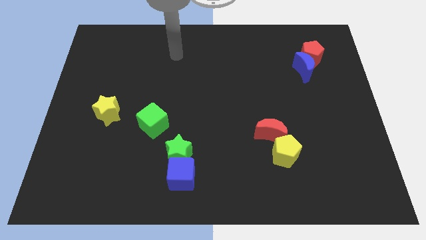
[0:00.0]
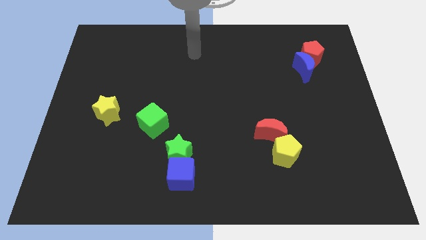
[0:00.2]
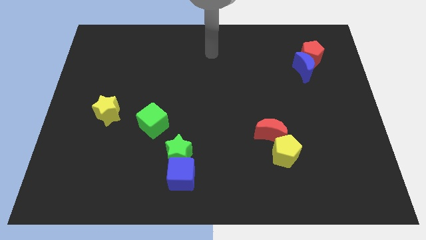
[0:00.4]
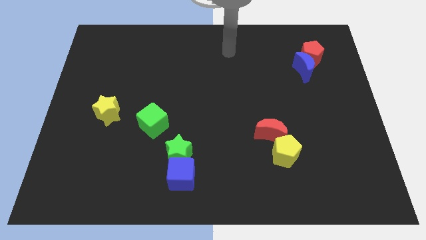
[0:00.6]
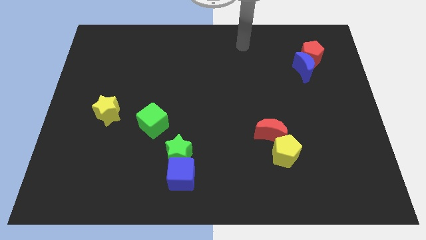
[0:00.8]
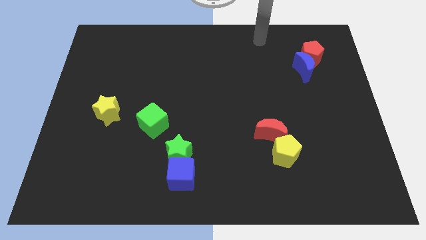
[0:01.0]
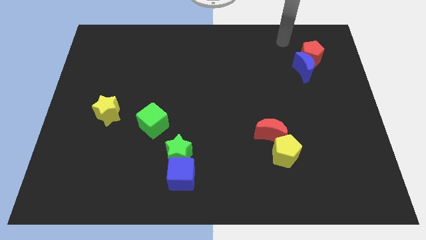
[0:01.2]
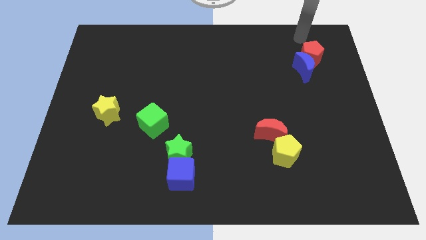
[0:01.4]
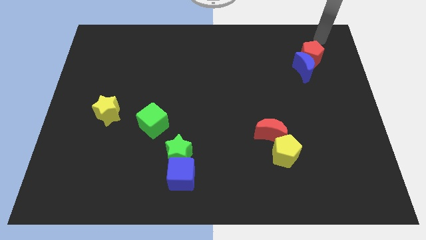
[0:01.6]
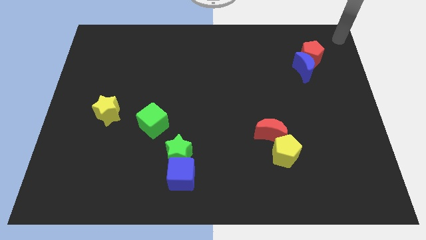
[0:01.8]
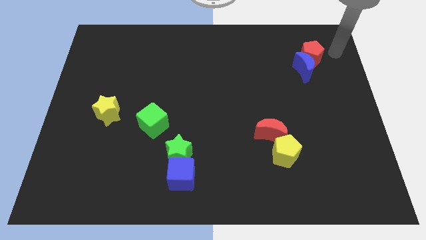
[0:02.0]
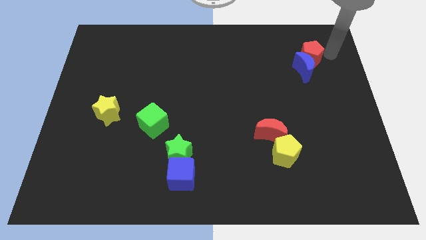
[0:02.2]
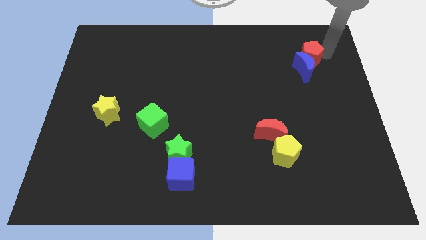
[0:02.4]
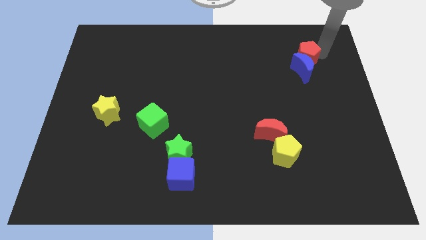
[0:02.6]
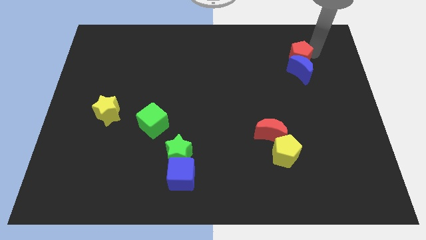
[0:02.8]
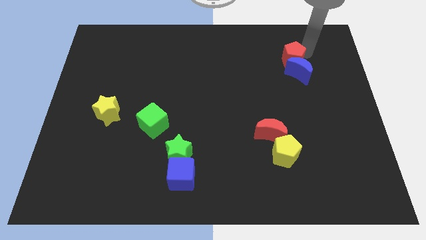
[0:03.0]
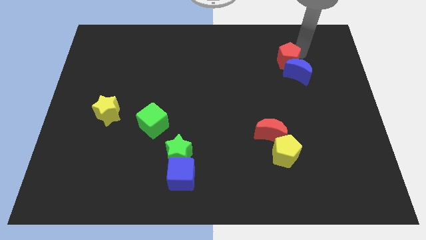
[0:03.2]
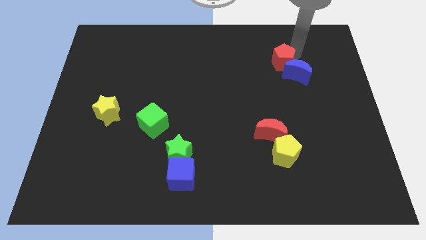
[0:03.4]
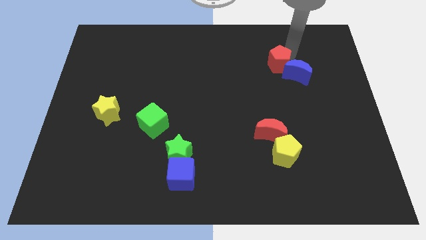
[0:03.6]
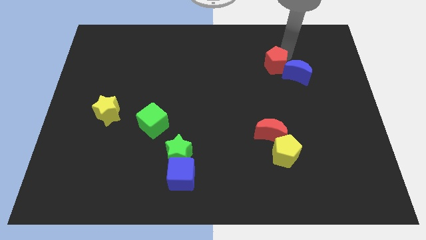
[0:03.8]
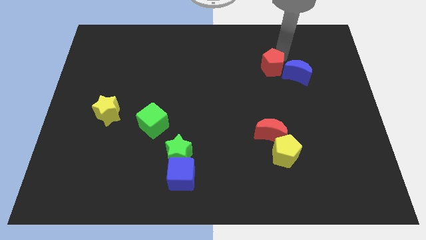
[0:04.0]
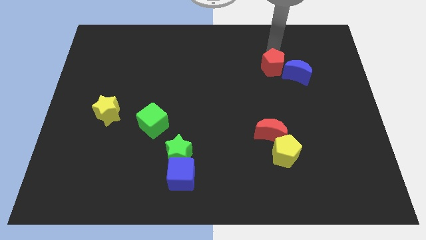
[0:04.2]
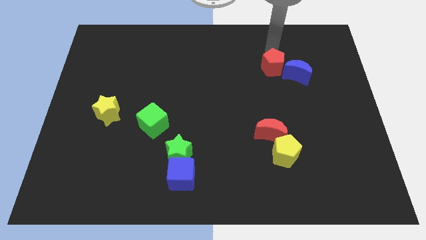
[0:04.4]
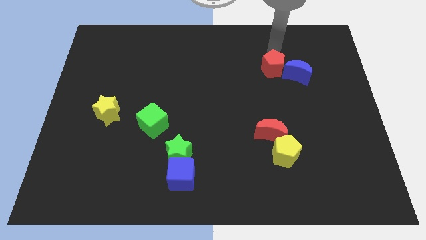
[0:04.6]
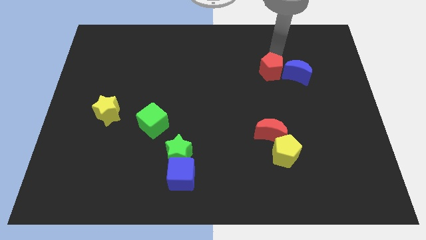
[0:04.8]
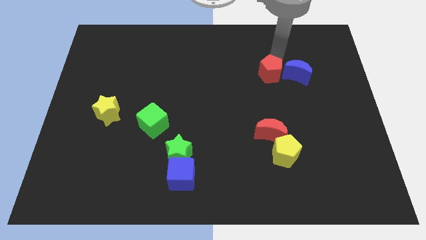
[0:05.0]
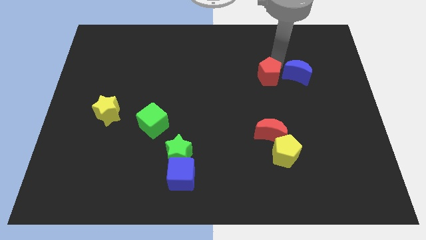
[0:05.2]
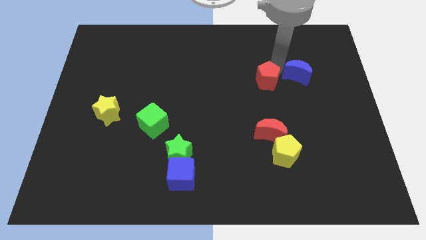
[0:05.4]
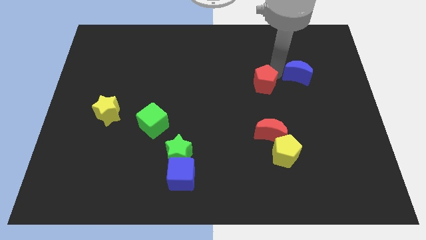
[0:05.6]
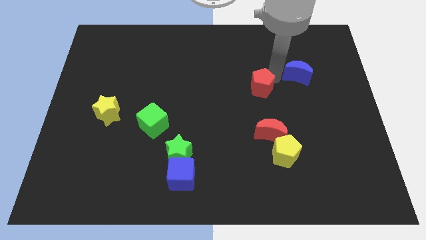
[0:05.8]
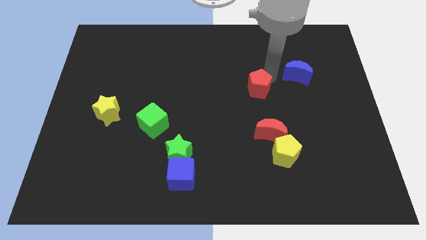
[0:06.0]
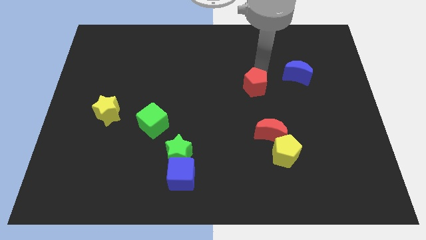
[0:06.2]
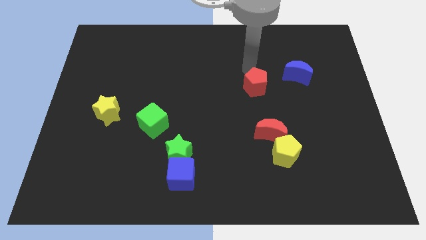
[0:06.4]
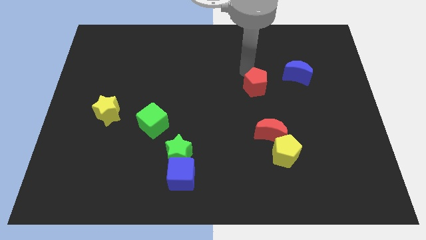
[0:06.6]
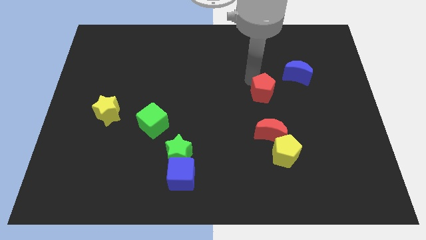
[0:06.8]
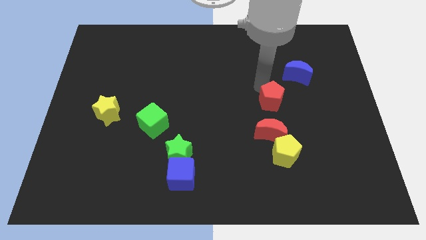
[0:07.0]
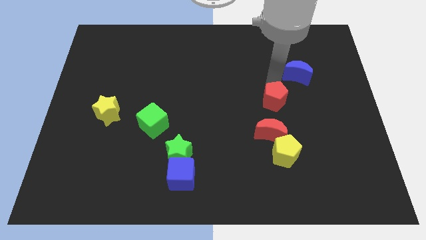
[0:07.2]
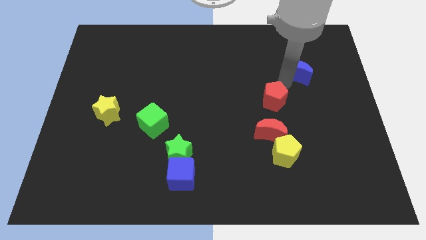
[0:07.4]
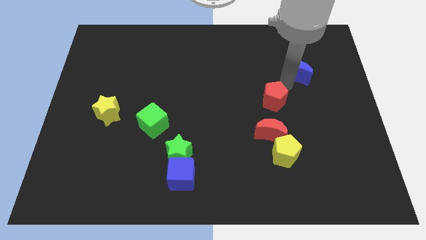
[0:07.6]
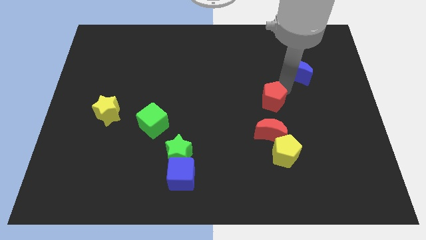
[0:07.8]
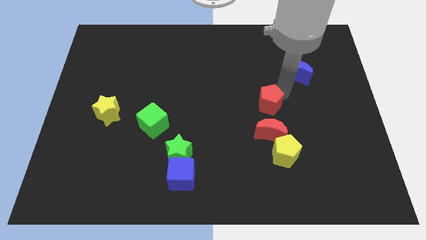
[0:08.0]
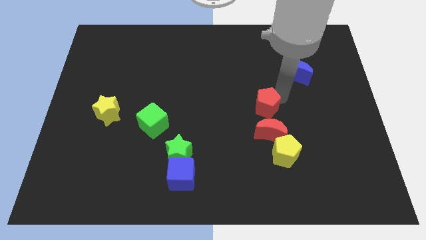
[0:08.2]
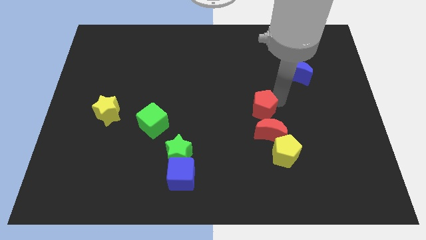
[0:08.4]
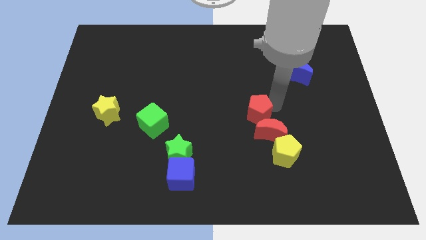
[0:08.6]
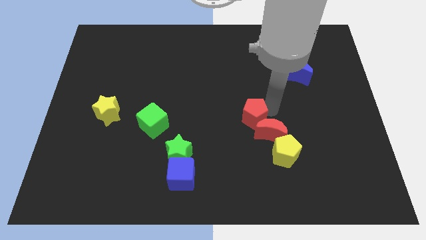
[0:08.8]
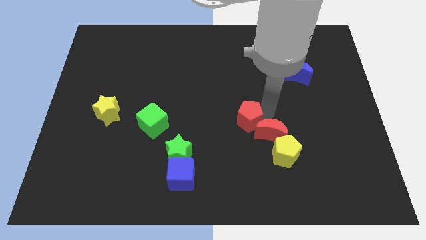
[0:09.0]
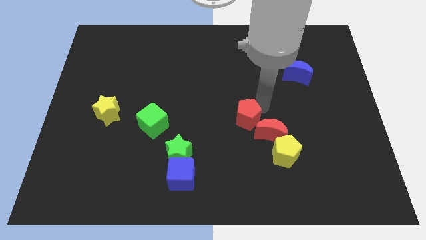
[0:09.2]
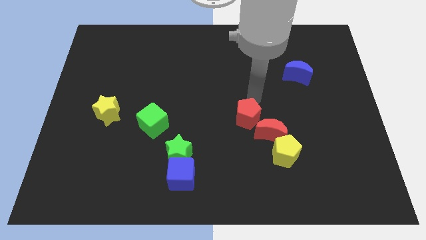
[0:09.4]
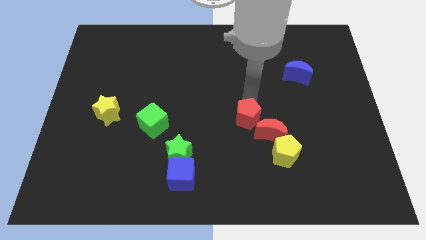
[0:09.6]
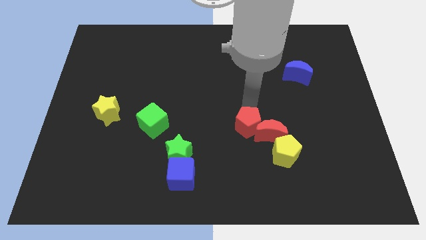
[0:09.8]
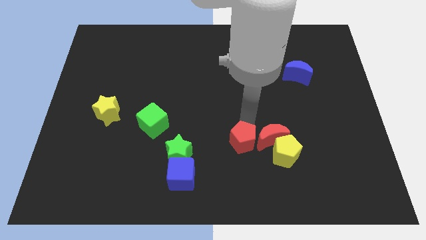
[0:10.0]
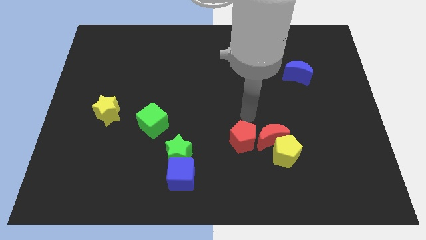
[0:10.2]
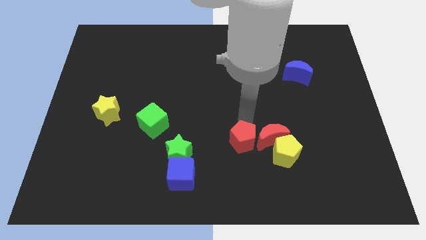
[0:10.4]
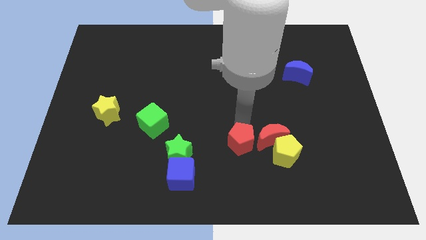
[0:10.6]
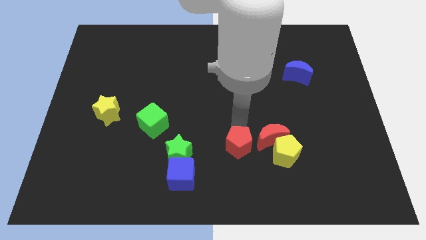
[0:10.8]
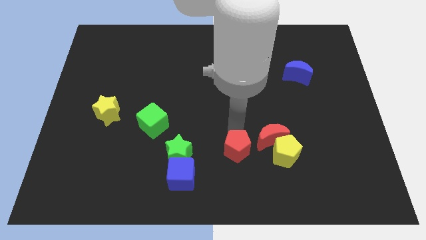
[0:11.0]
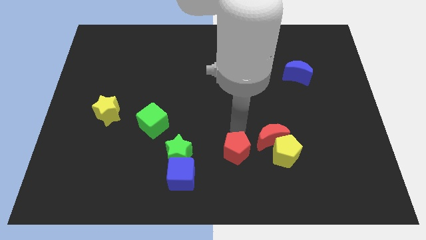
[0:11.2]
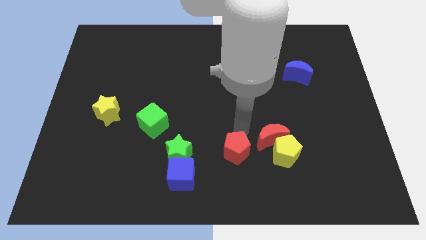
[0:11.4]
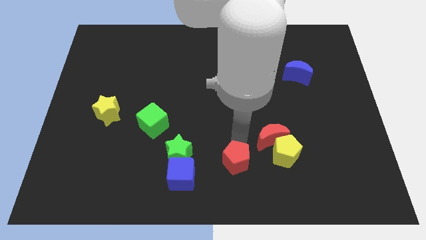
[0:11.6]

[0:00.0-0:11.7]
push the red pentagon to the bottom side

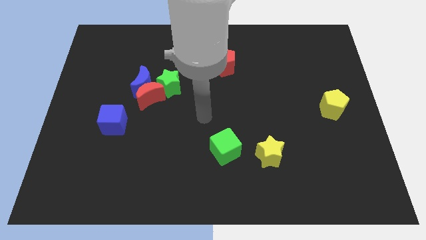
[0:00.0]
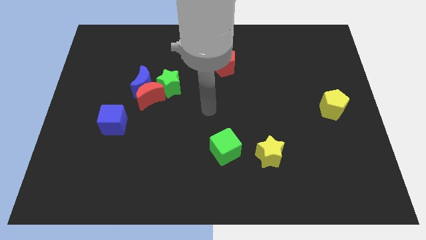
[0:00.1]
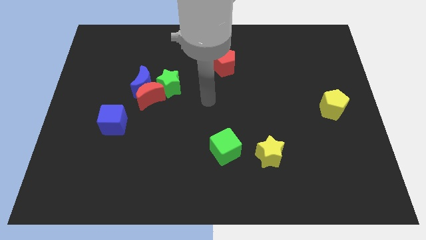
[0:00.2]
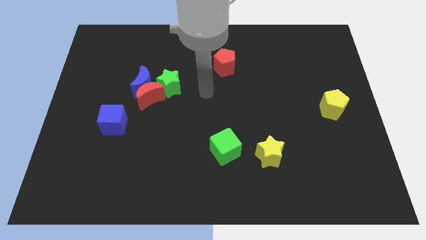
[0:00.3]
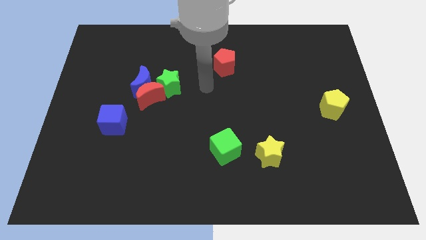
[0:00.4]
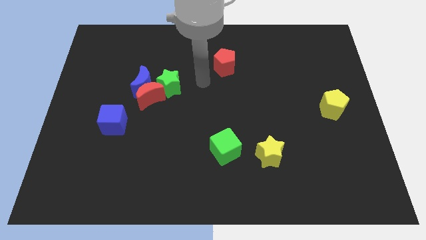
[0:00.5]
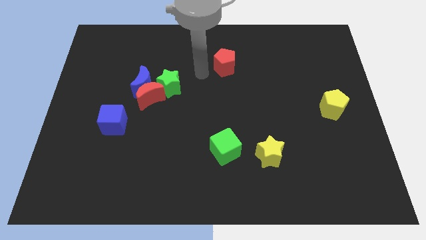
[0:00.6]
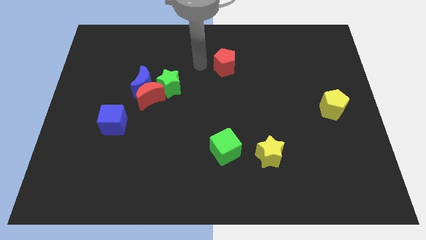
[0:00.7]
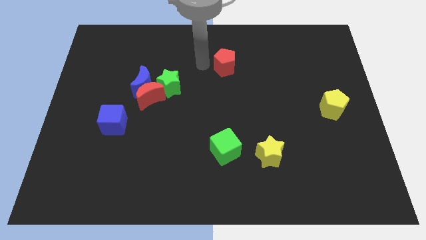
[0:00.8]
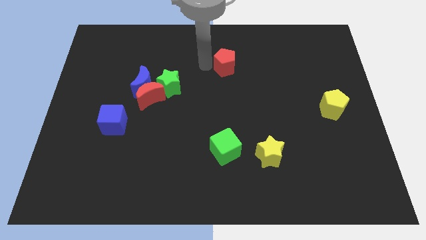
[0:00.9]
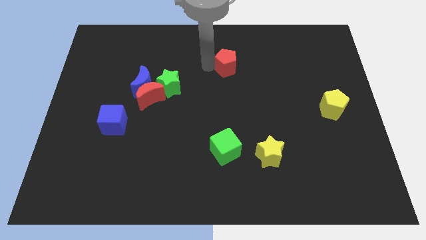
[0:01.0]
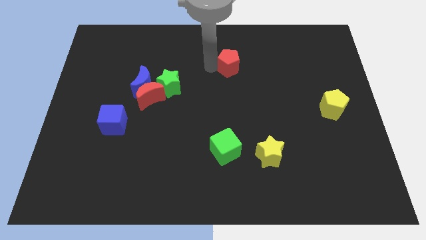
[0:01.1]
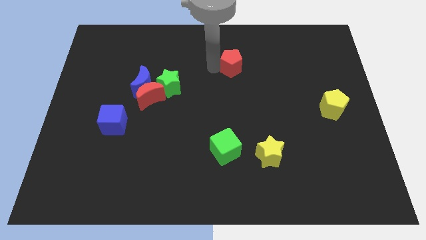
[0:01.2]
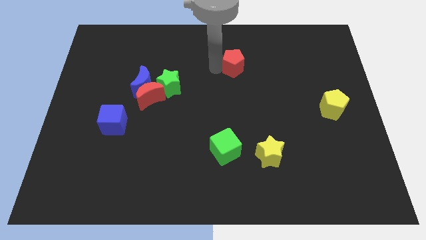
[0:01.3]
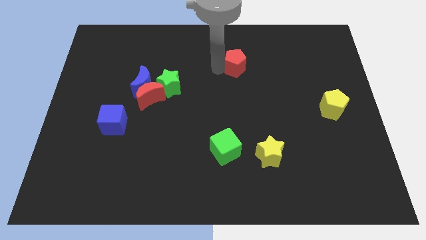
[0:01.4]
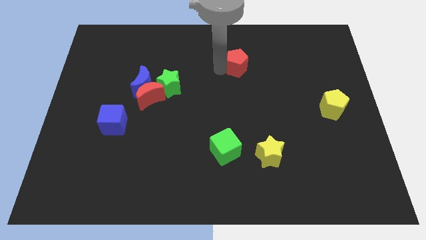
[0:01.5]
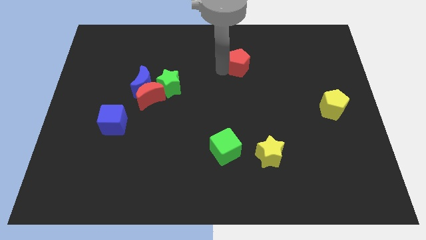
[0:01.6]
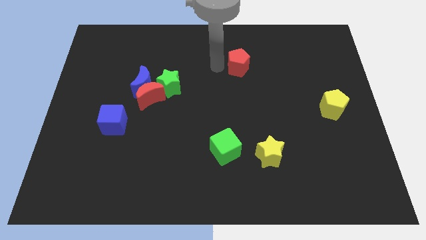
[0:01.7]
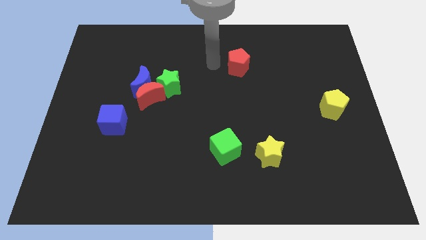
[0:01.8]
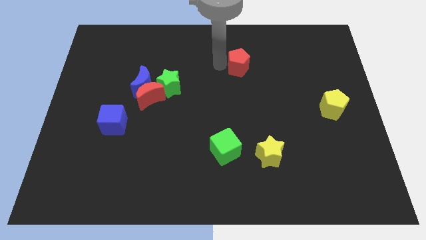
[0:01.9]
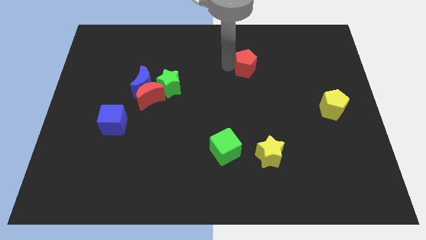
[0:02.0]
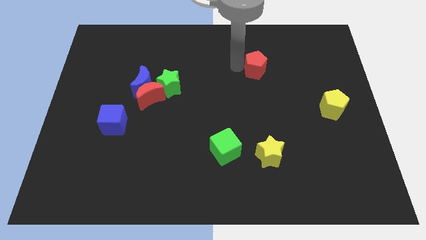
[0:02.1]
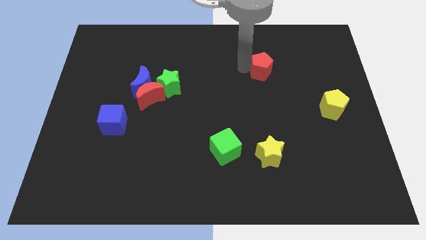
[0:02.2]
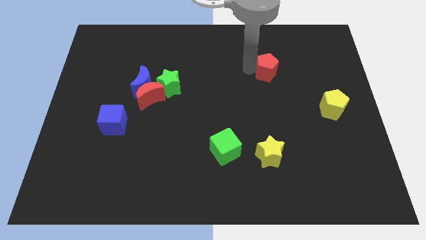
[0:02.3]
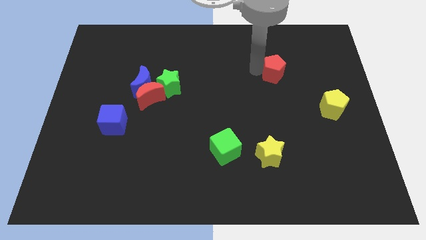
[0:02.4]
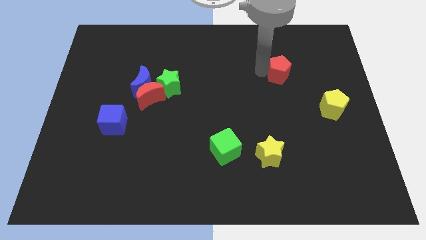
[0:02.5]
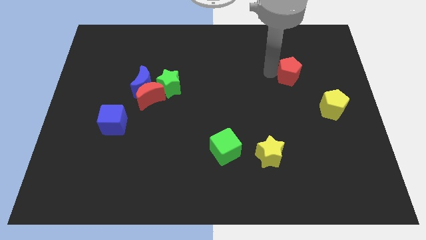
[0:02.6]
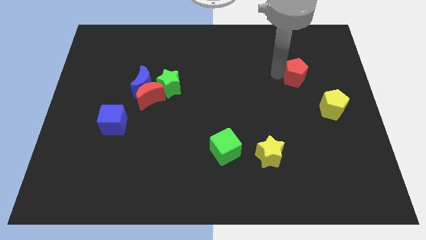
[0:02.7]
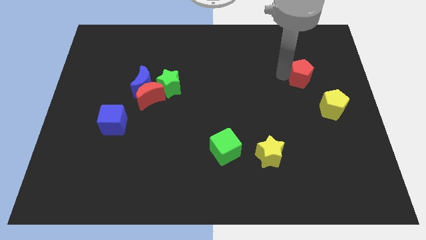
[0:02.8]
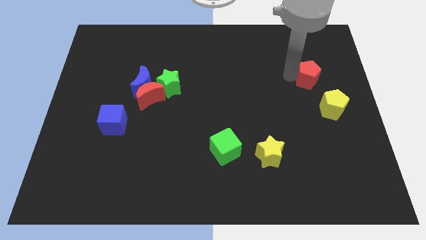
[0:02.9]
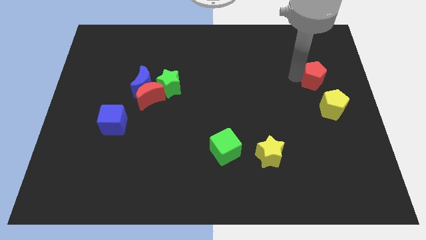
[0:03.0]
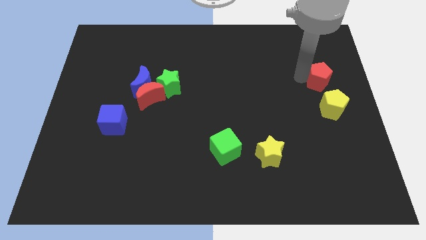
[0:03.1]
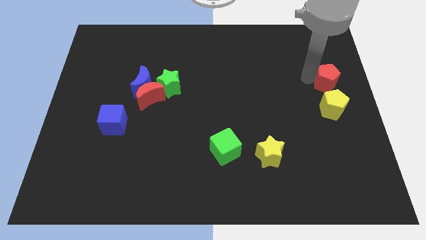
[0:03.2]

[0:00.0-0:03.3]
put the red pentagon to the right side
